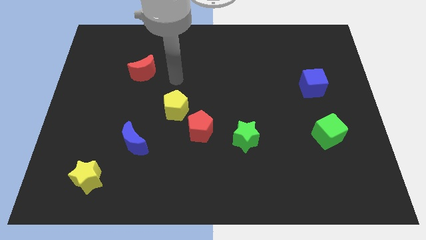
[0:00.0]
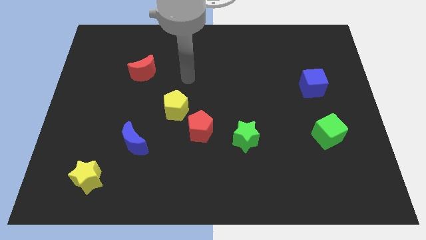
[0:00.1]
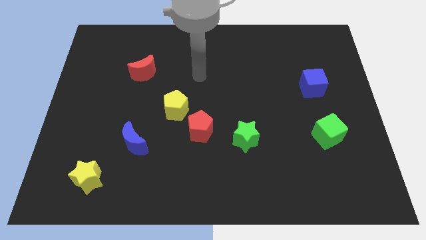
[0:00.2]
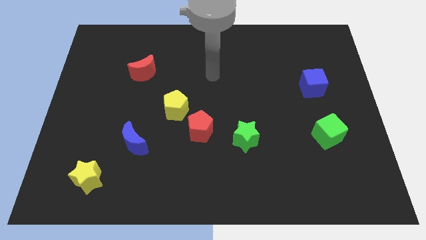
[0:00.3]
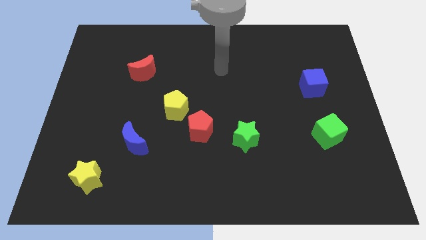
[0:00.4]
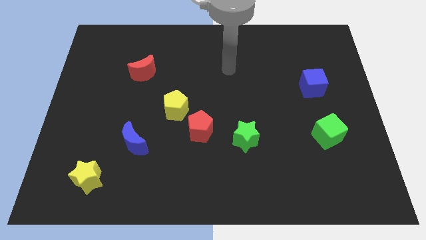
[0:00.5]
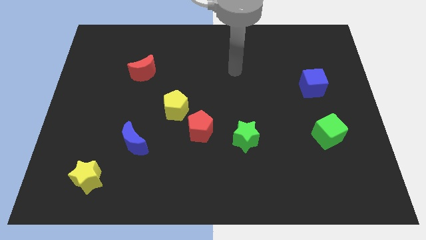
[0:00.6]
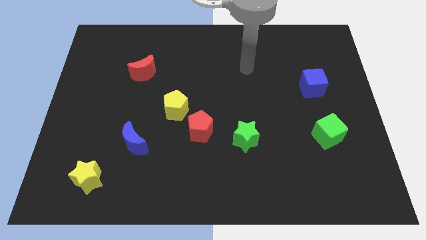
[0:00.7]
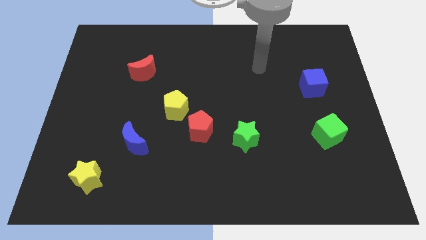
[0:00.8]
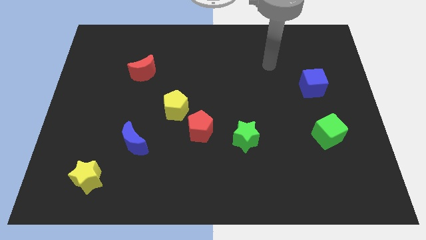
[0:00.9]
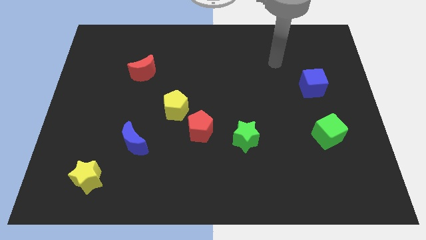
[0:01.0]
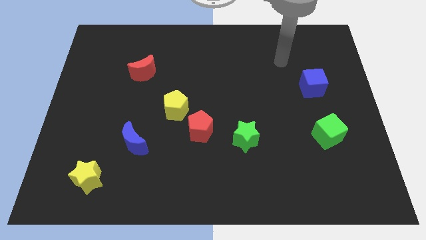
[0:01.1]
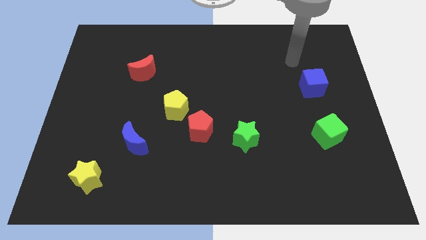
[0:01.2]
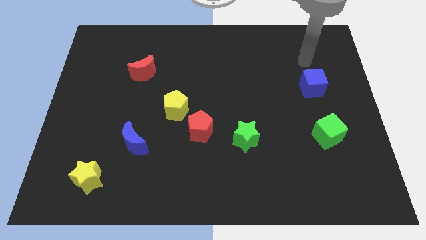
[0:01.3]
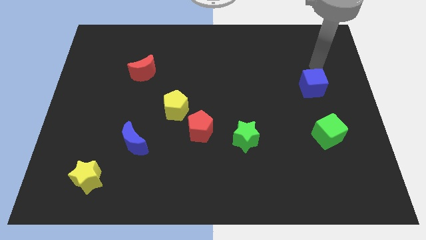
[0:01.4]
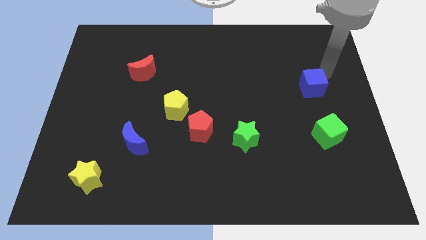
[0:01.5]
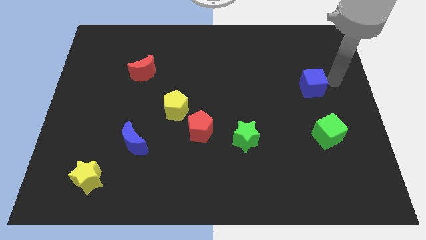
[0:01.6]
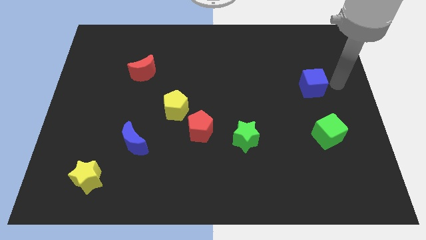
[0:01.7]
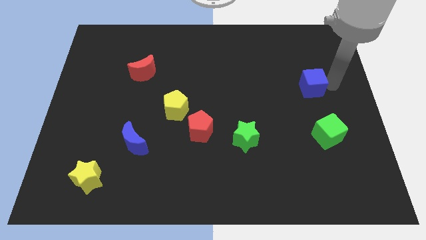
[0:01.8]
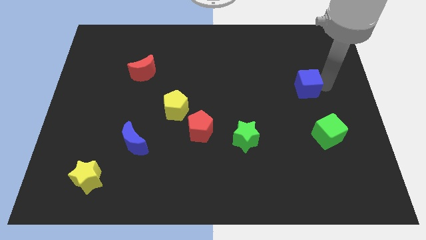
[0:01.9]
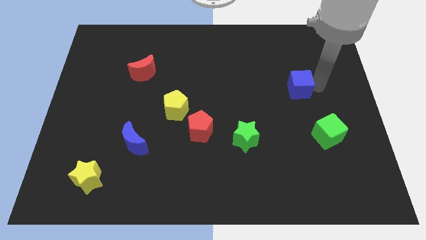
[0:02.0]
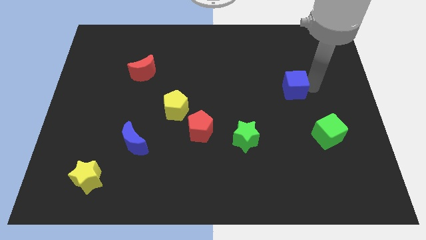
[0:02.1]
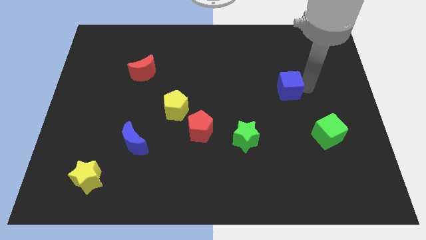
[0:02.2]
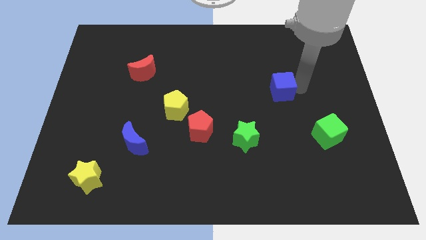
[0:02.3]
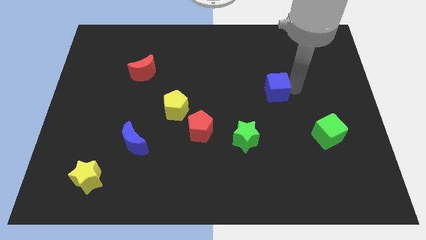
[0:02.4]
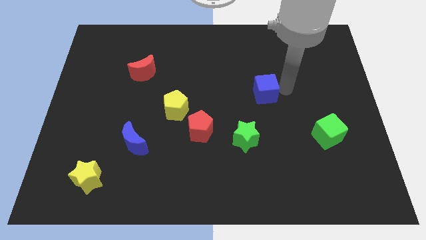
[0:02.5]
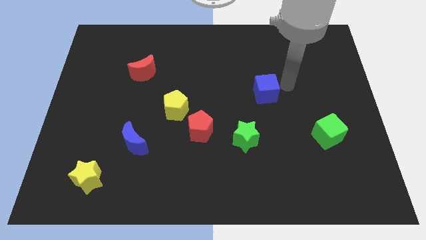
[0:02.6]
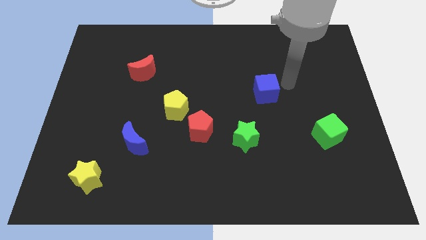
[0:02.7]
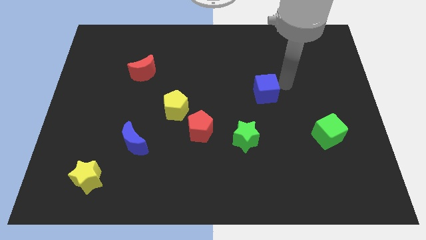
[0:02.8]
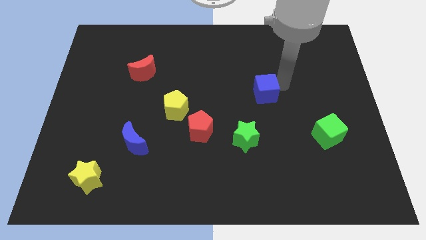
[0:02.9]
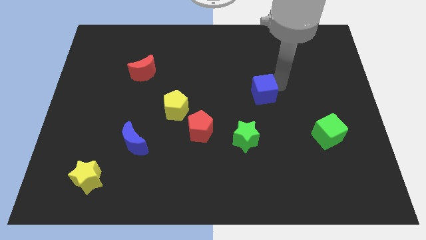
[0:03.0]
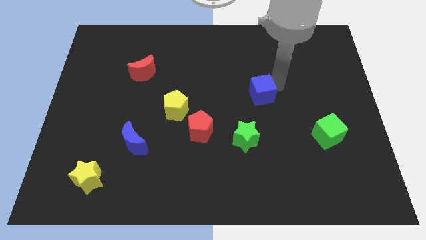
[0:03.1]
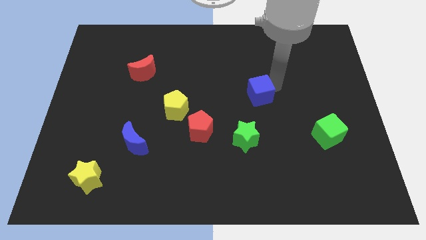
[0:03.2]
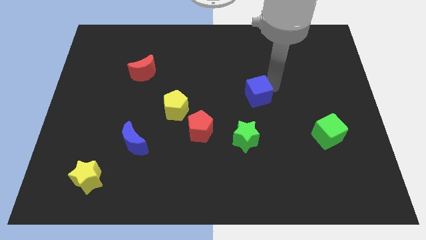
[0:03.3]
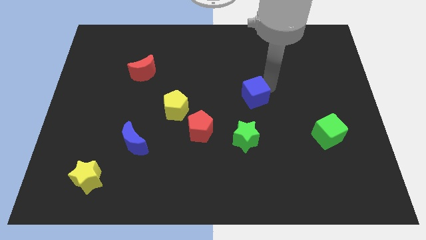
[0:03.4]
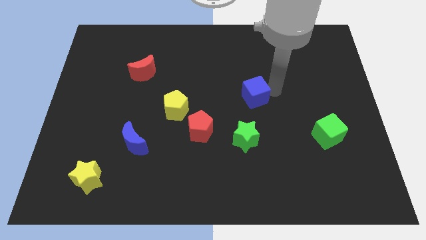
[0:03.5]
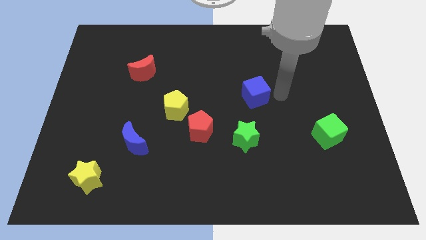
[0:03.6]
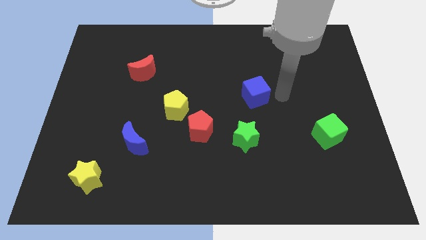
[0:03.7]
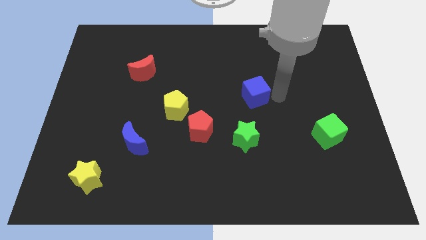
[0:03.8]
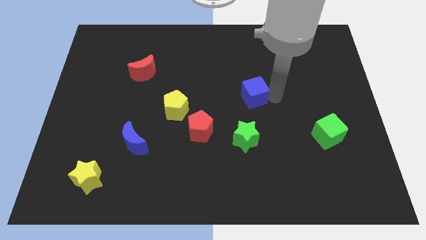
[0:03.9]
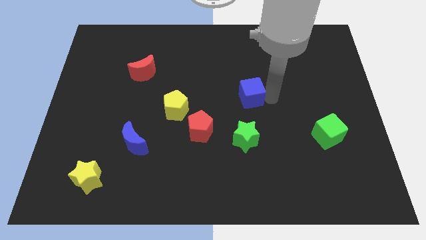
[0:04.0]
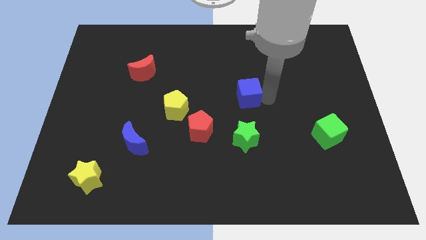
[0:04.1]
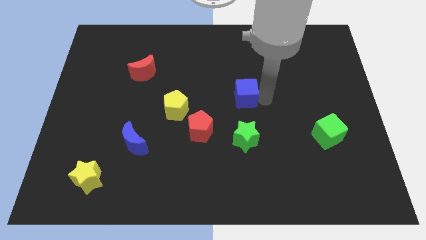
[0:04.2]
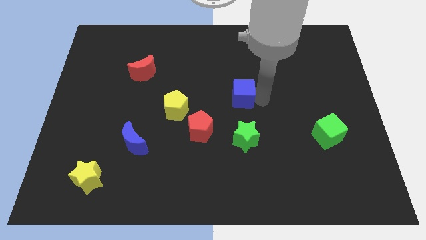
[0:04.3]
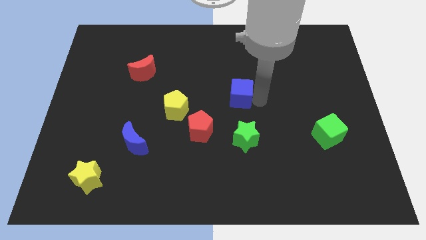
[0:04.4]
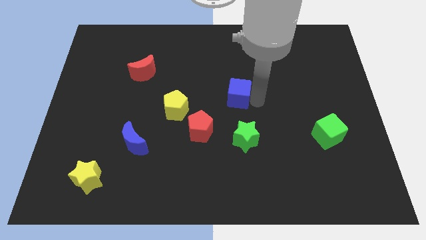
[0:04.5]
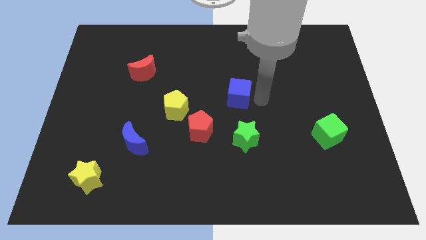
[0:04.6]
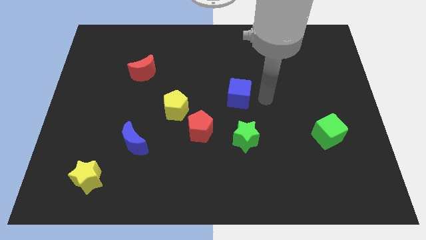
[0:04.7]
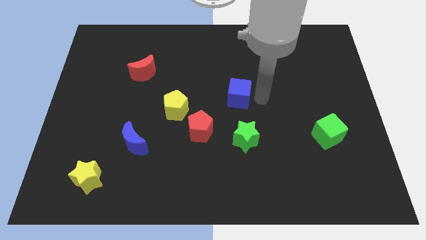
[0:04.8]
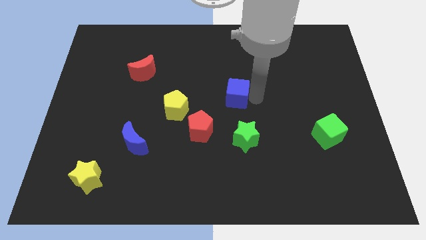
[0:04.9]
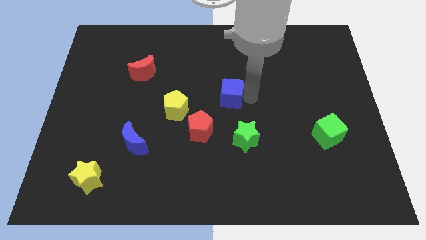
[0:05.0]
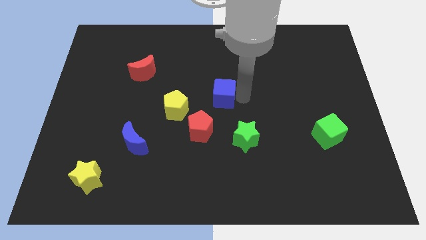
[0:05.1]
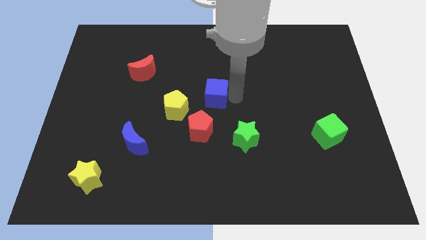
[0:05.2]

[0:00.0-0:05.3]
move the blue cube to the top of the red pentagon

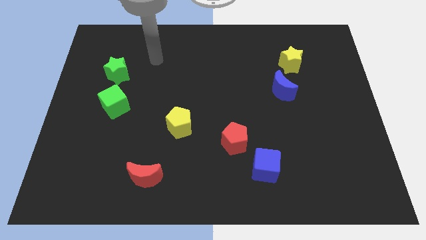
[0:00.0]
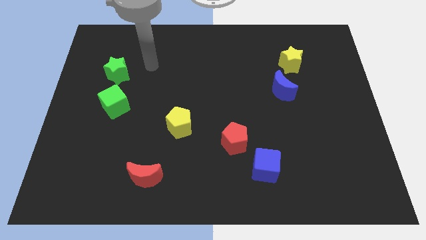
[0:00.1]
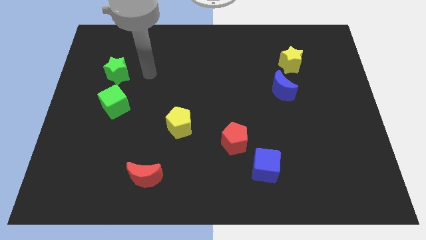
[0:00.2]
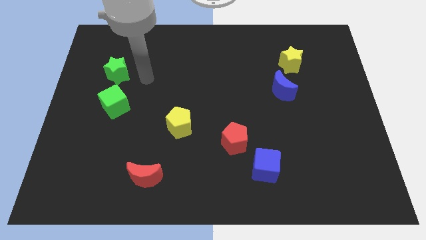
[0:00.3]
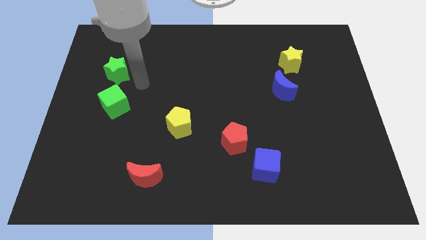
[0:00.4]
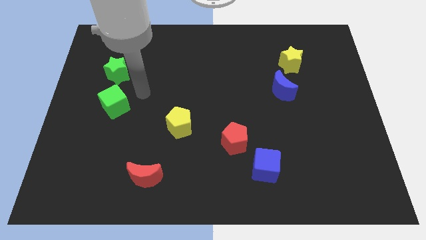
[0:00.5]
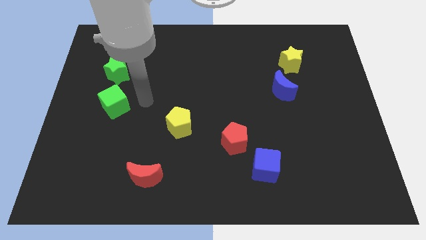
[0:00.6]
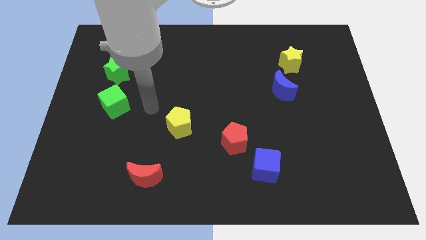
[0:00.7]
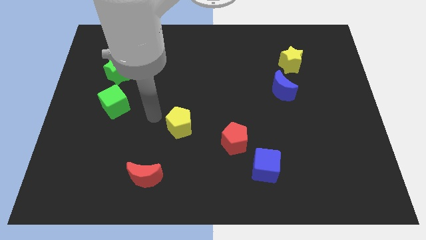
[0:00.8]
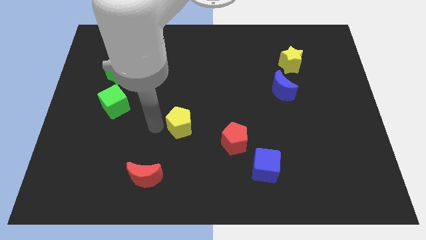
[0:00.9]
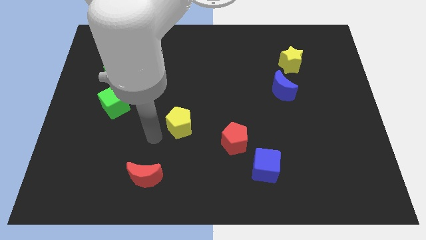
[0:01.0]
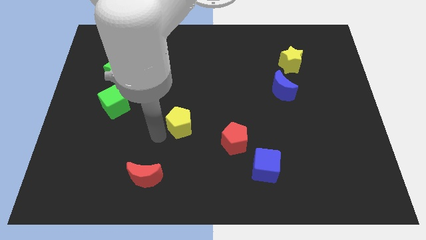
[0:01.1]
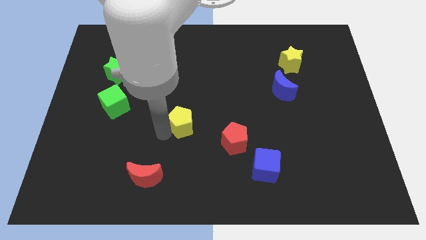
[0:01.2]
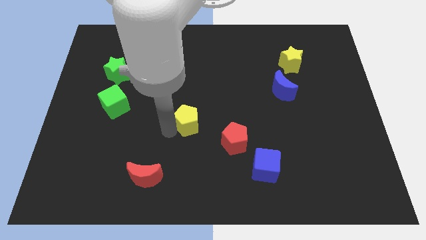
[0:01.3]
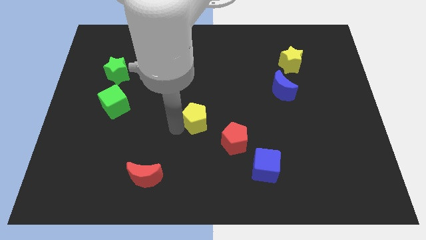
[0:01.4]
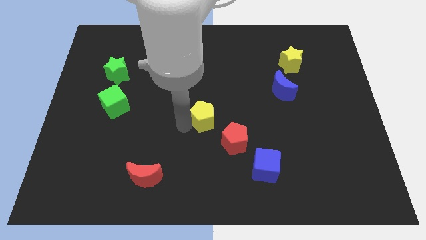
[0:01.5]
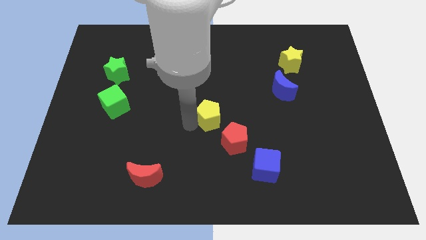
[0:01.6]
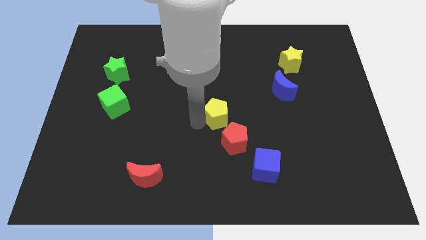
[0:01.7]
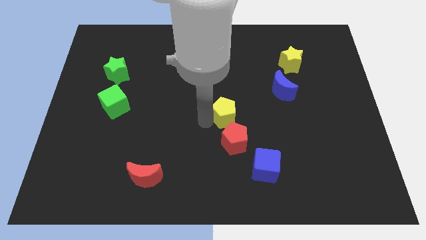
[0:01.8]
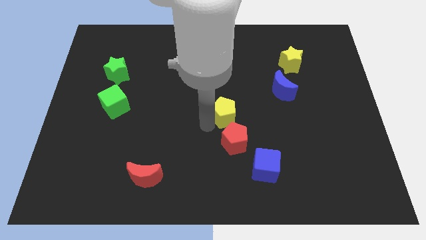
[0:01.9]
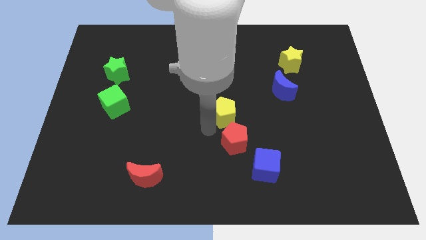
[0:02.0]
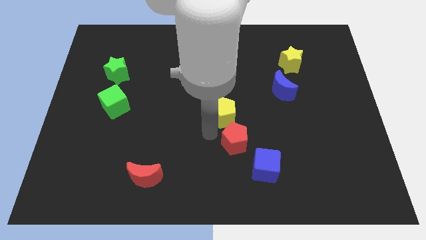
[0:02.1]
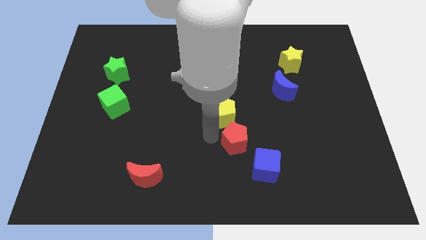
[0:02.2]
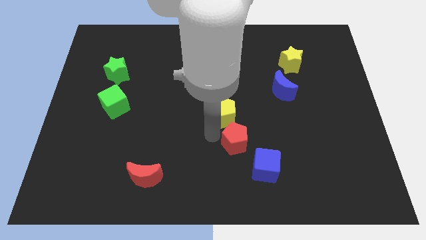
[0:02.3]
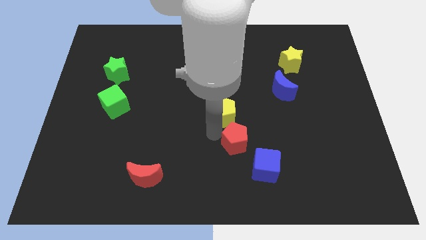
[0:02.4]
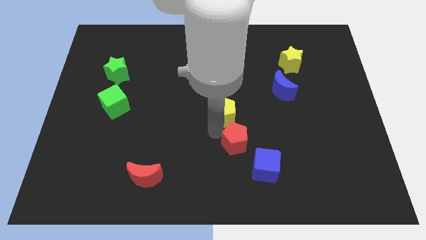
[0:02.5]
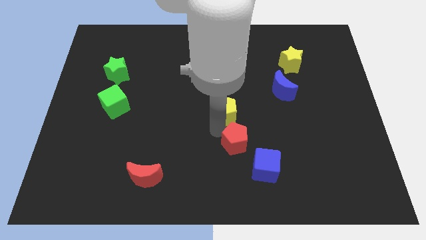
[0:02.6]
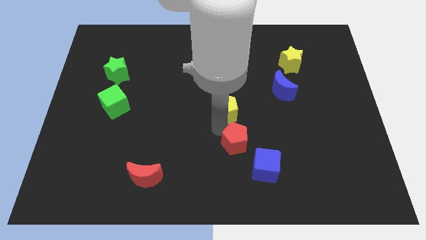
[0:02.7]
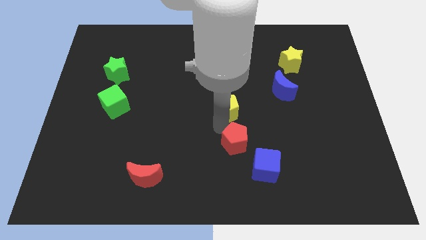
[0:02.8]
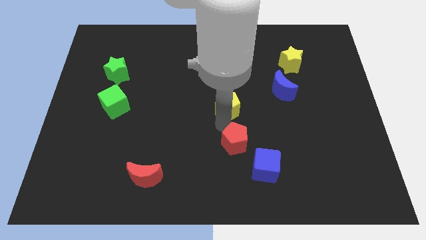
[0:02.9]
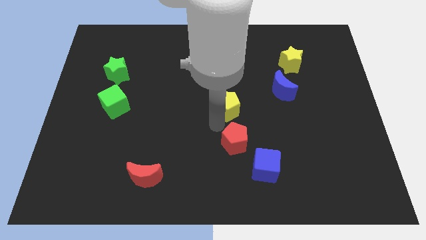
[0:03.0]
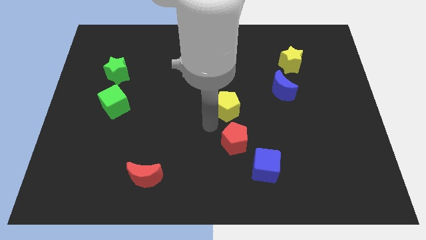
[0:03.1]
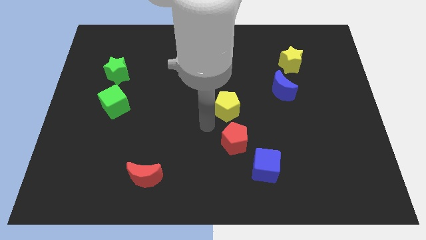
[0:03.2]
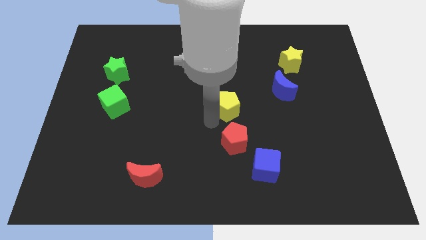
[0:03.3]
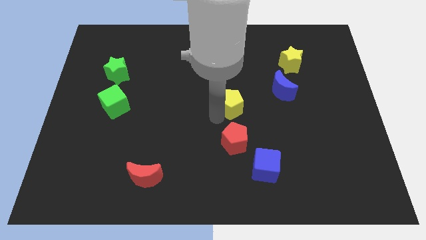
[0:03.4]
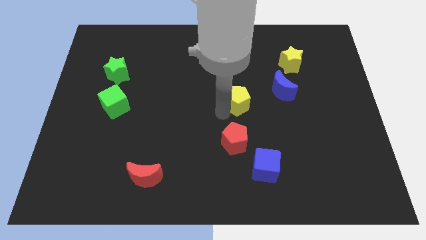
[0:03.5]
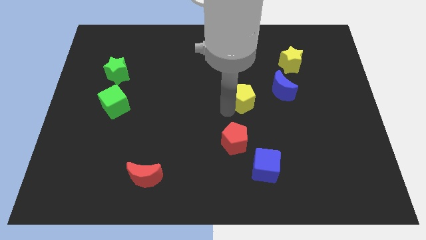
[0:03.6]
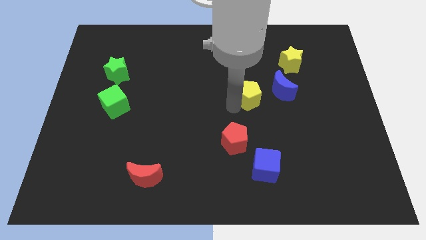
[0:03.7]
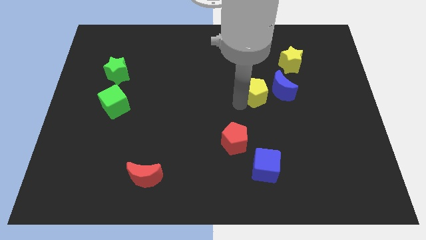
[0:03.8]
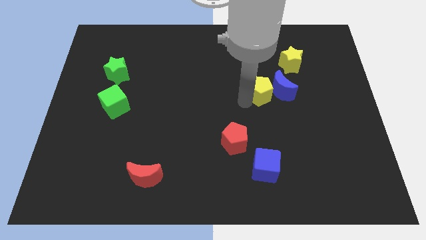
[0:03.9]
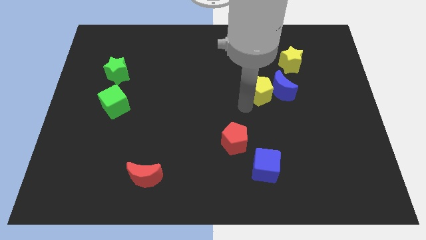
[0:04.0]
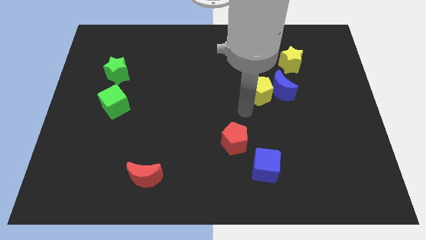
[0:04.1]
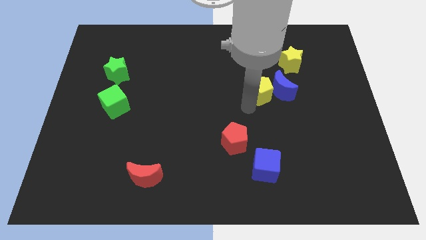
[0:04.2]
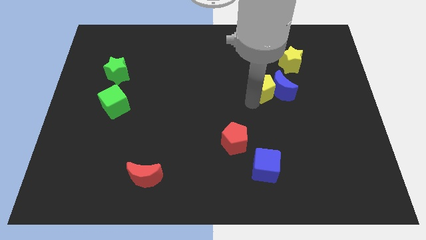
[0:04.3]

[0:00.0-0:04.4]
put the yellow pentagon to the bottom left side of the yellow star
